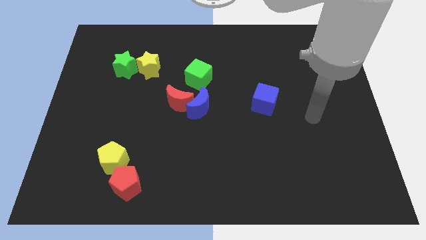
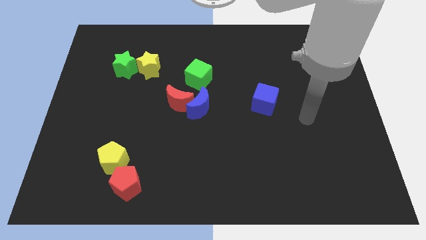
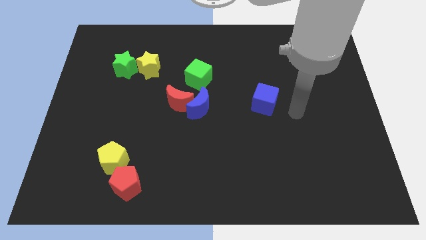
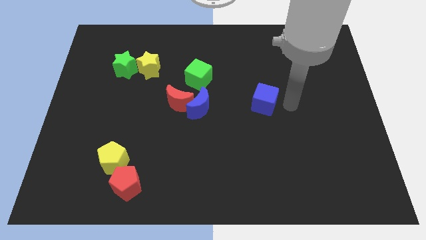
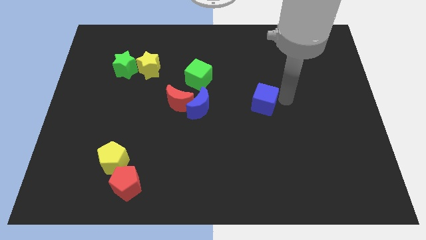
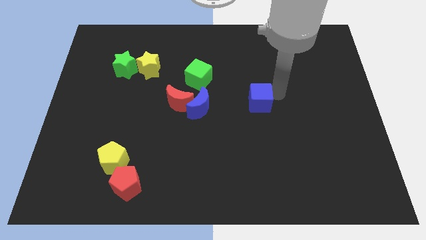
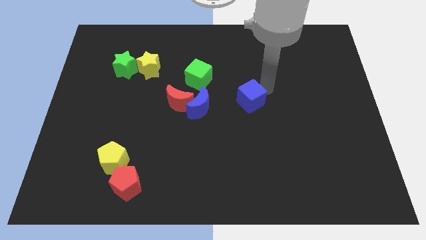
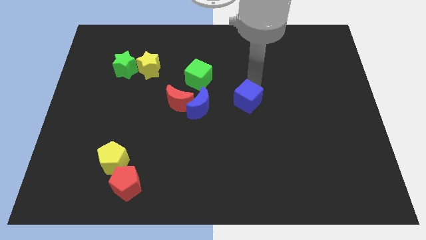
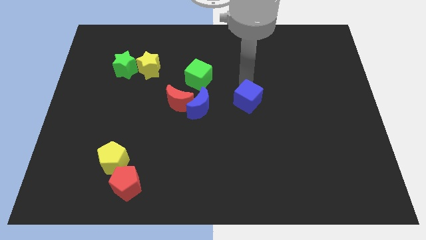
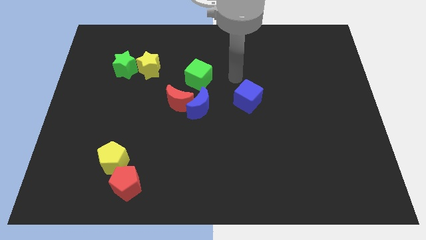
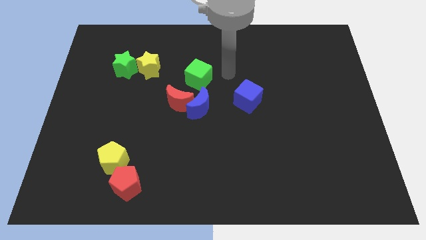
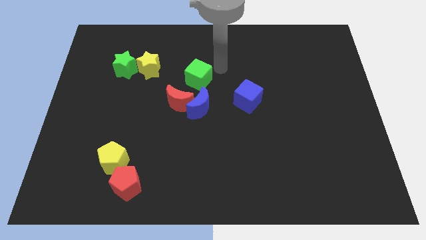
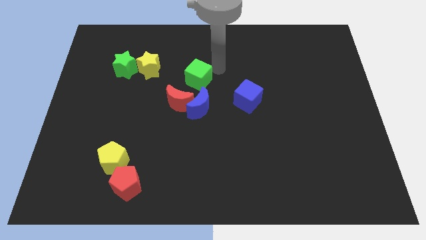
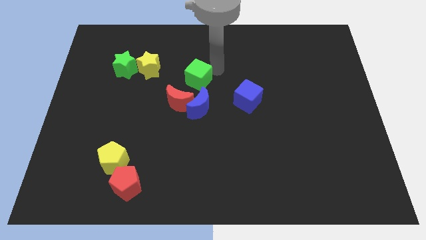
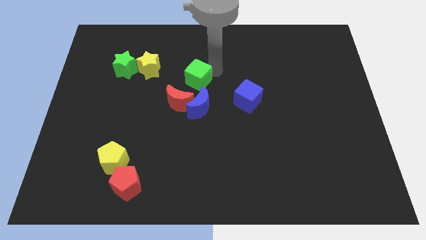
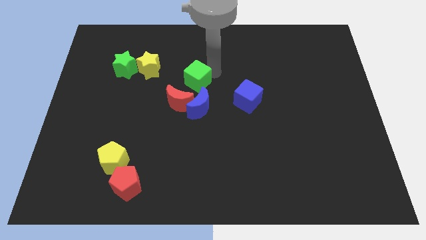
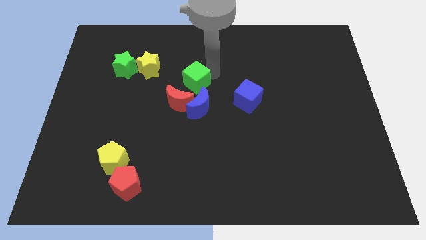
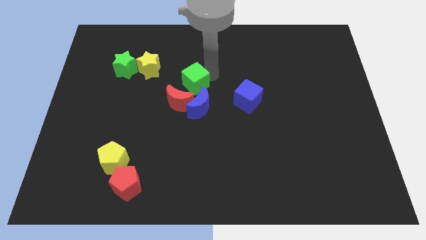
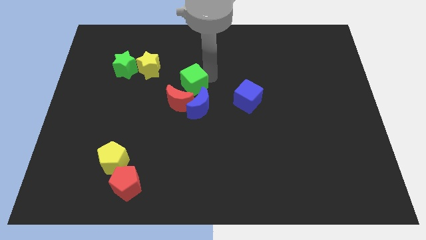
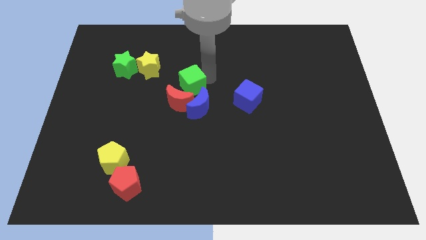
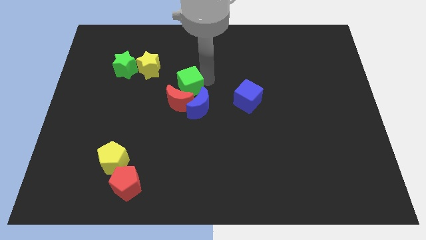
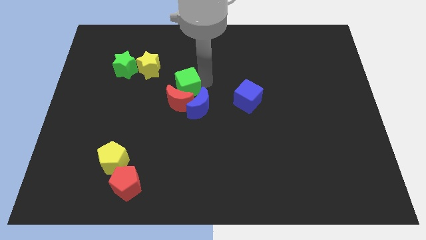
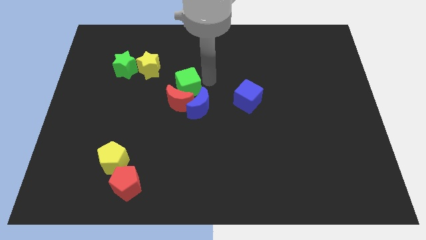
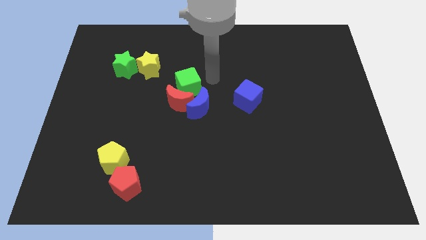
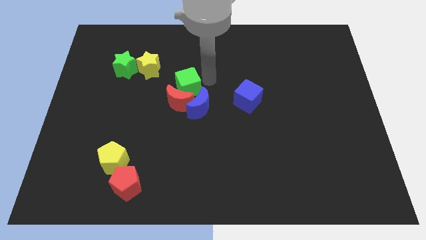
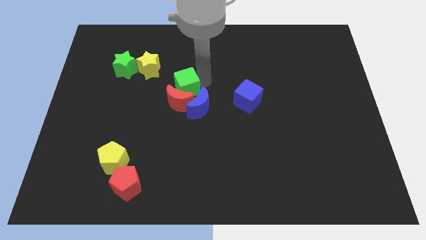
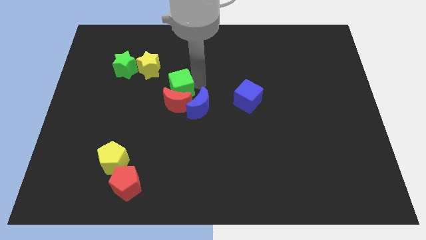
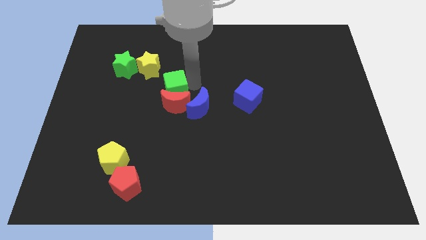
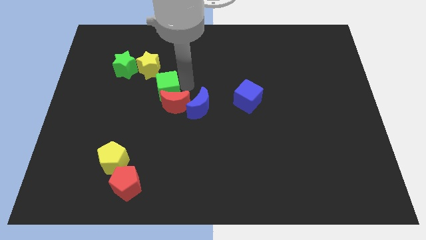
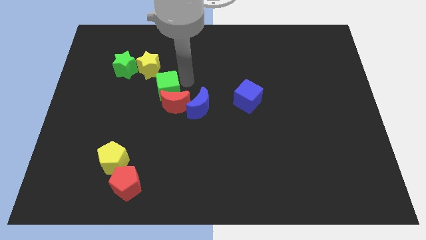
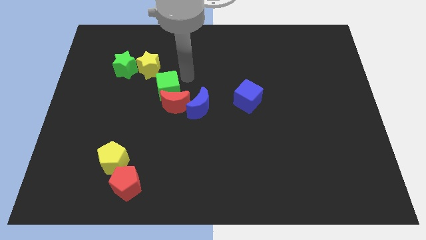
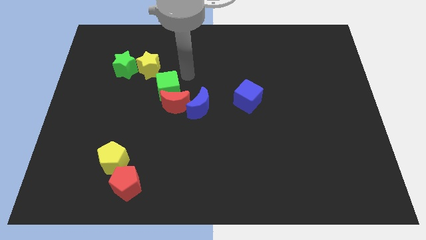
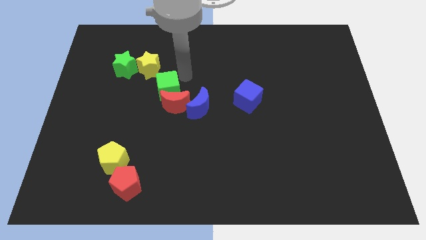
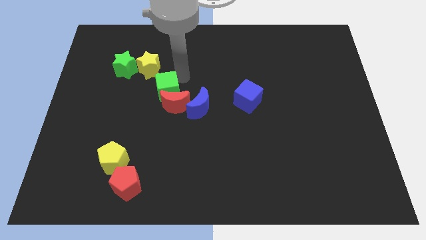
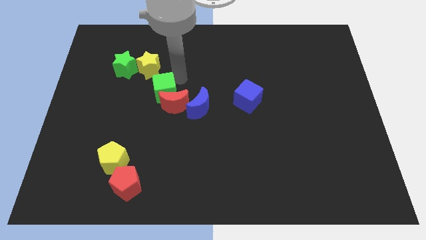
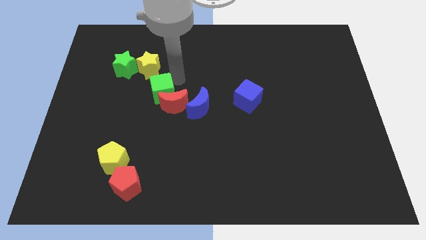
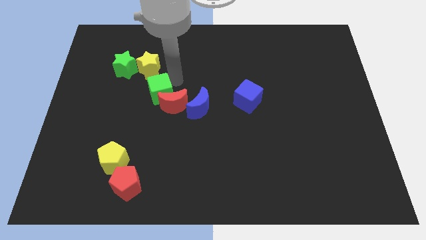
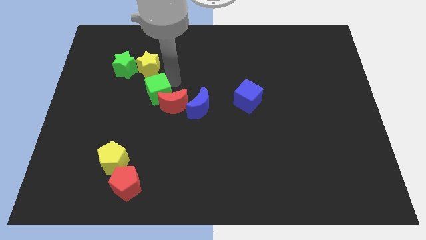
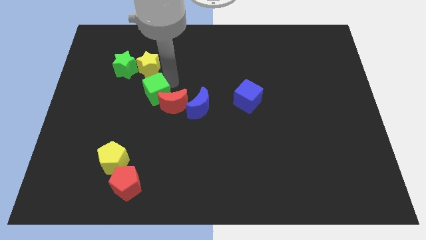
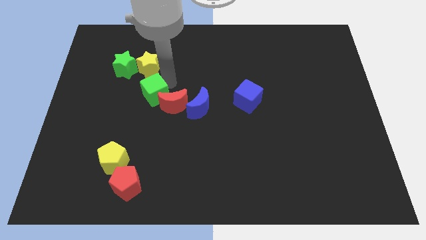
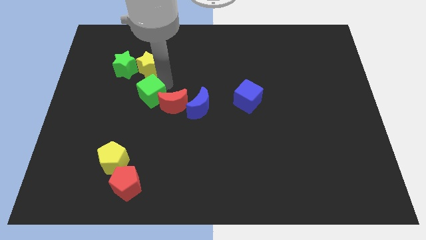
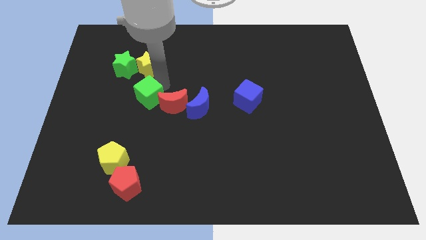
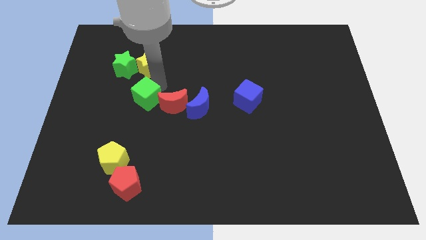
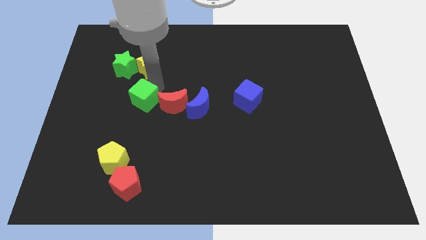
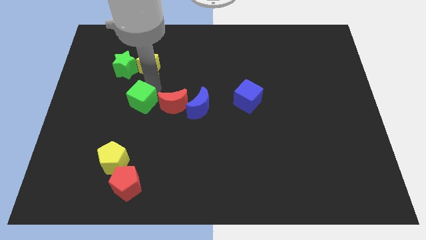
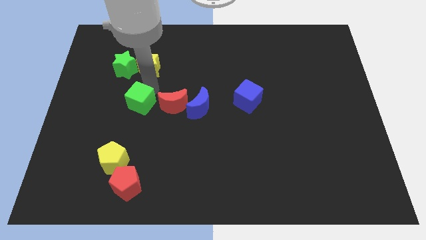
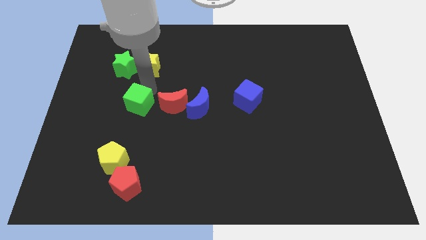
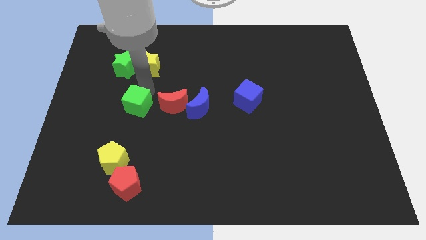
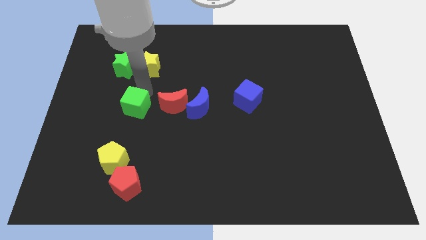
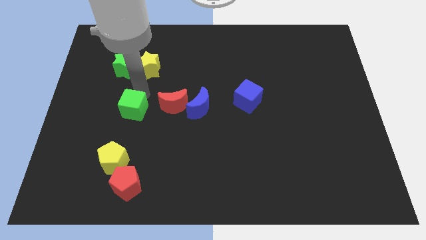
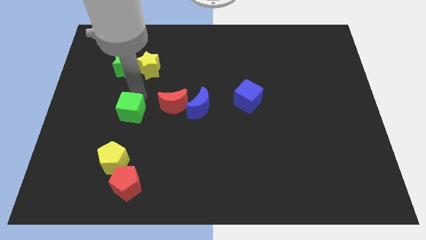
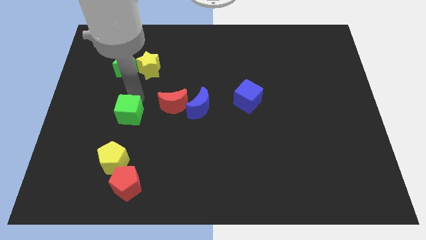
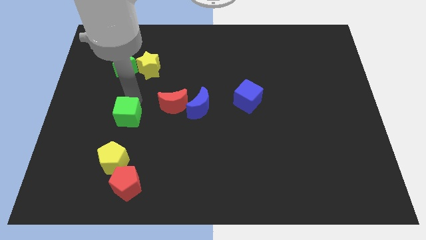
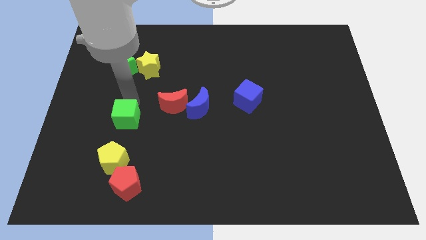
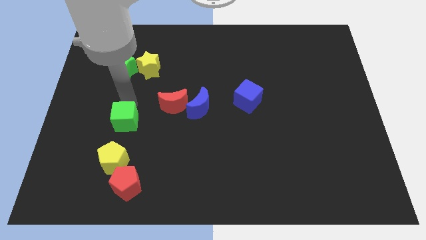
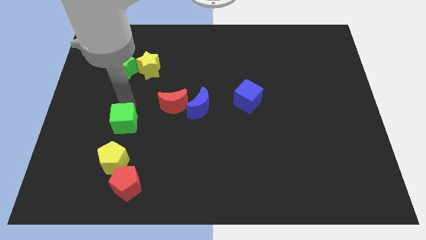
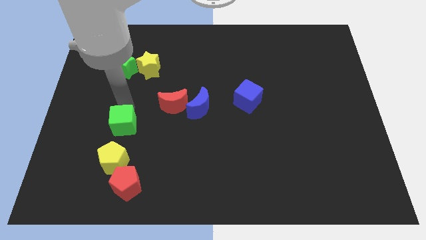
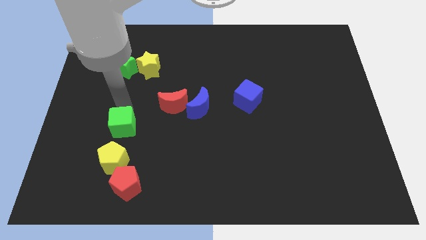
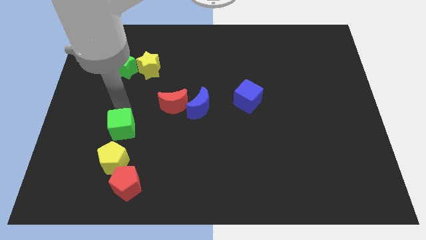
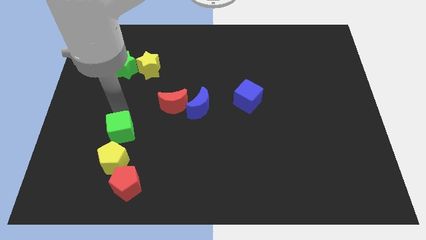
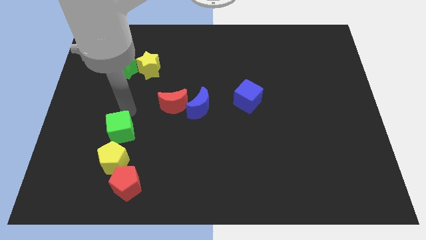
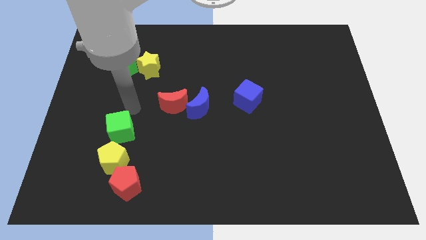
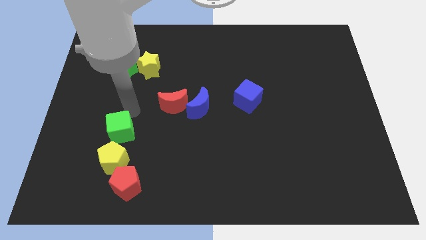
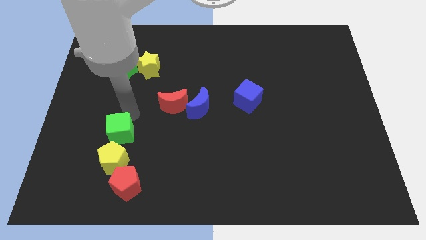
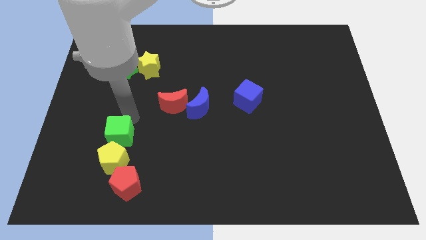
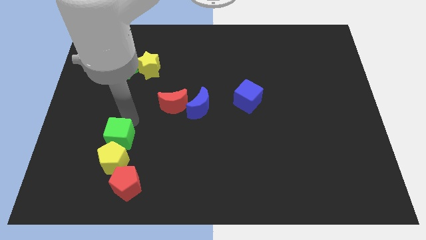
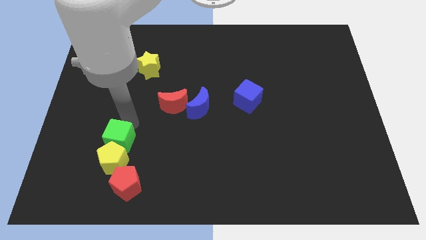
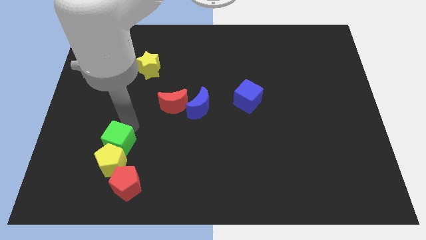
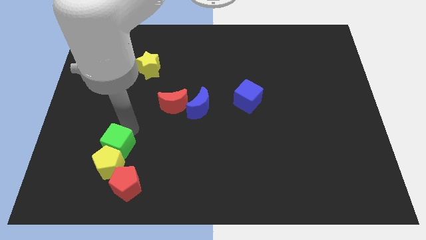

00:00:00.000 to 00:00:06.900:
move the green cube to the top left of the red pentagon

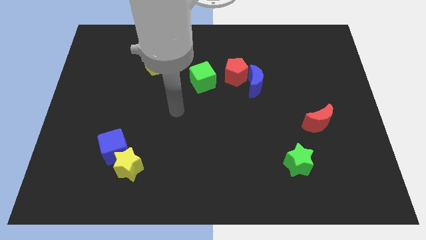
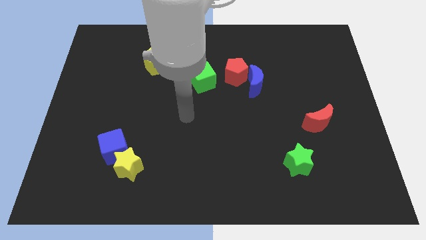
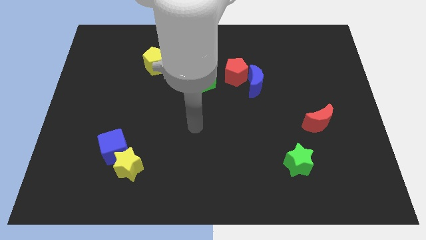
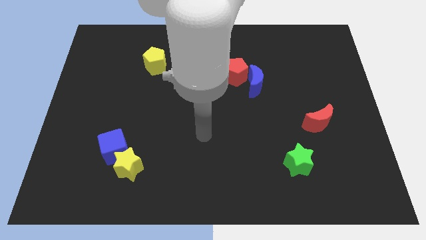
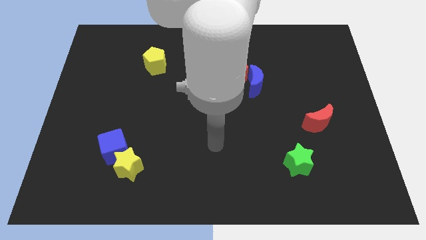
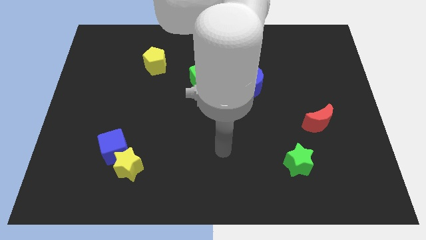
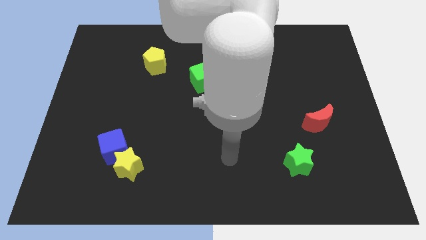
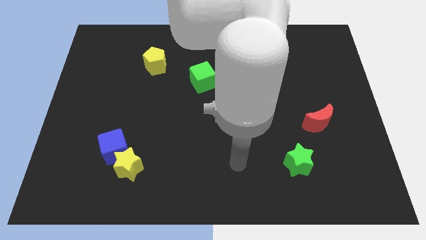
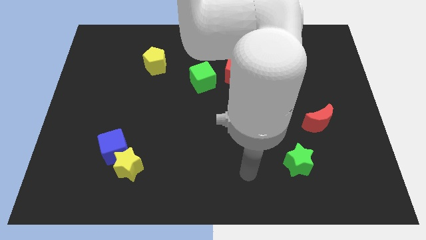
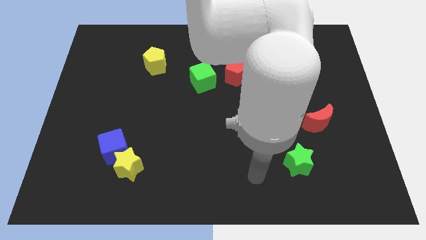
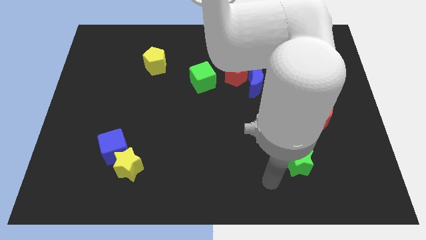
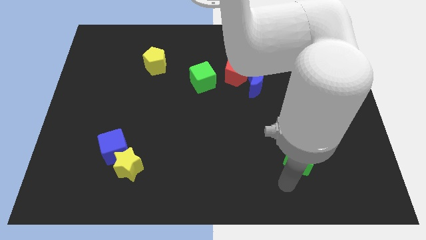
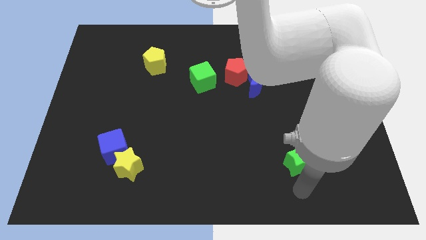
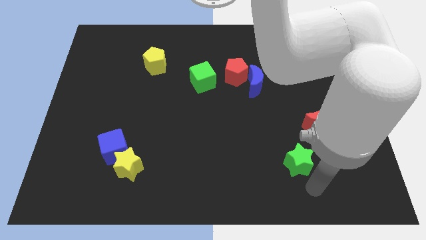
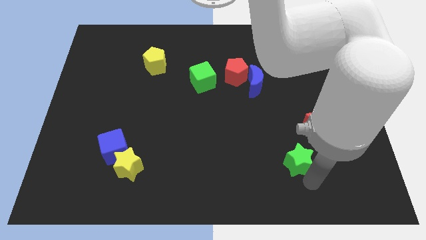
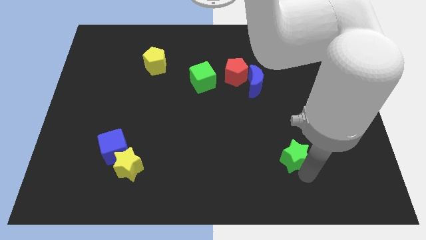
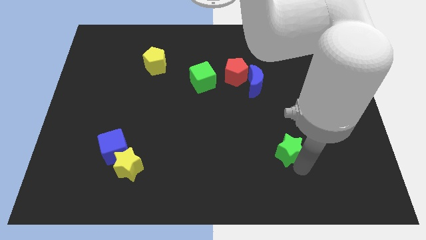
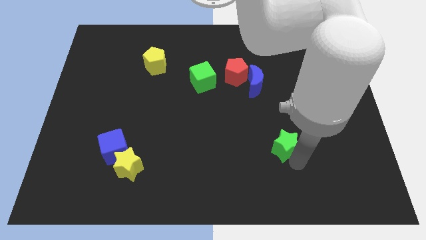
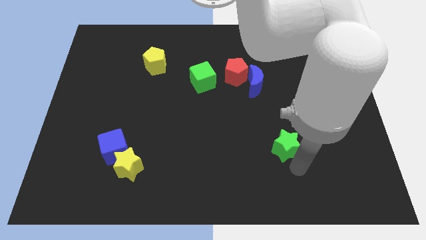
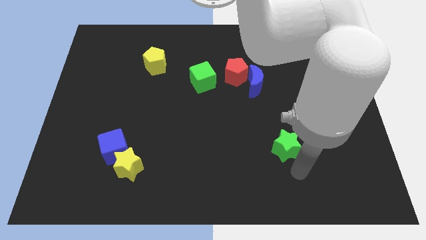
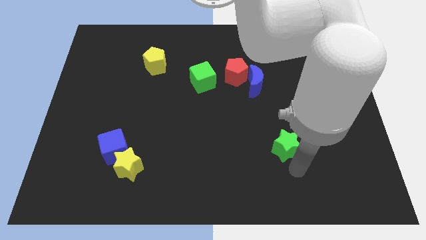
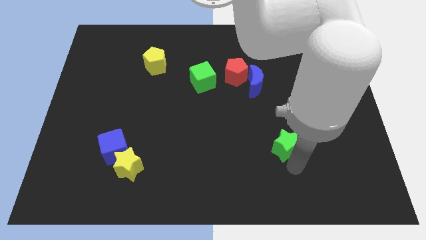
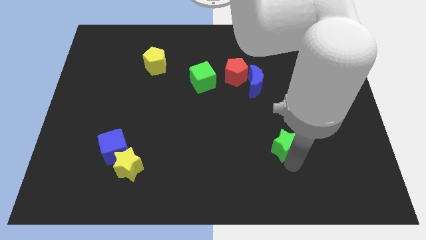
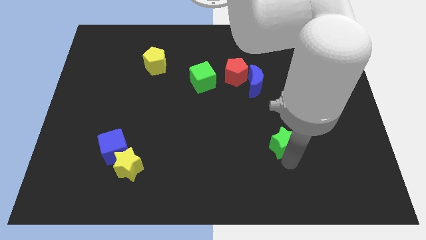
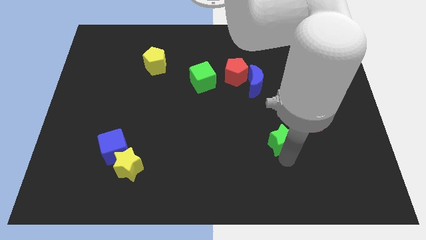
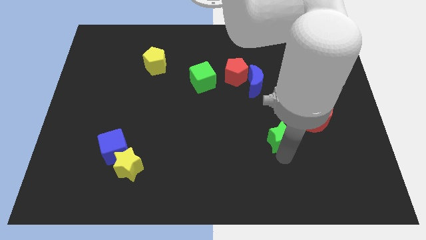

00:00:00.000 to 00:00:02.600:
slide the green star just left of the red moon
